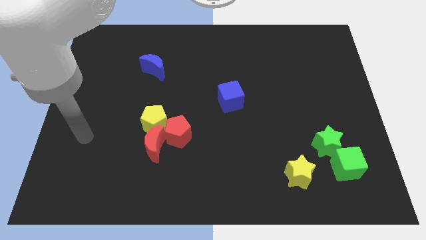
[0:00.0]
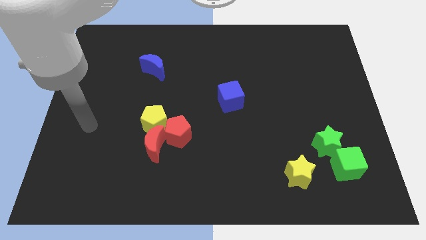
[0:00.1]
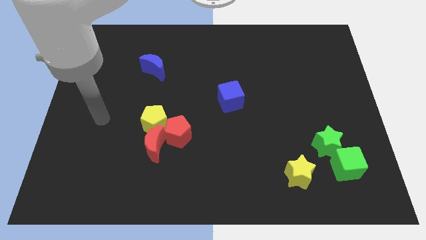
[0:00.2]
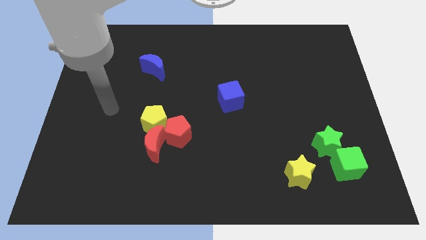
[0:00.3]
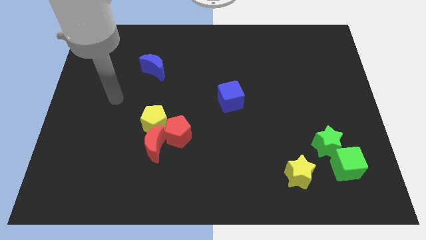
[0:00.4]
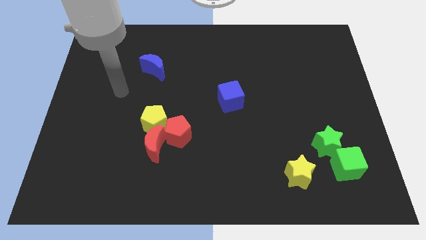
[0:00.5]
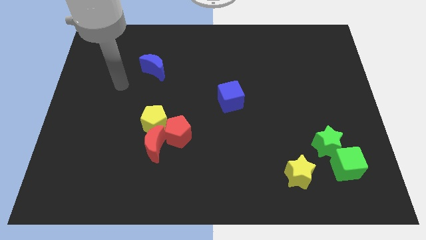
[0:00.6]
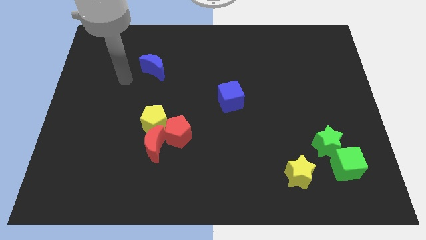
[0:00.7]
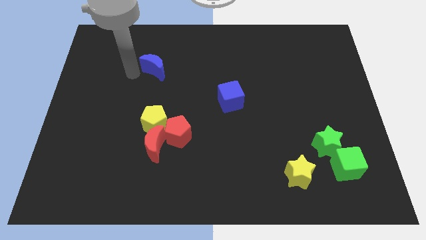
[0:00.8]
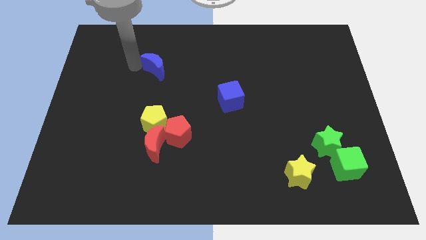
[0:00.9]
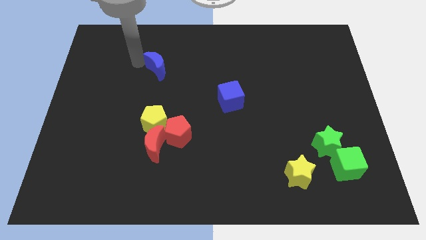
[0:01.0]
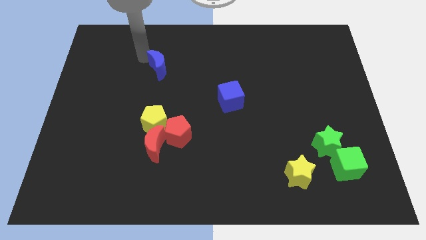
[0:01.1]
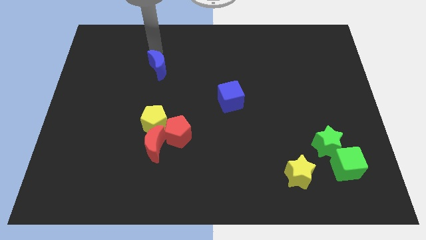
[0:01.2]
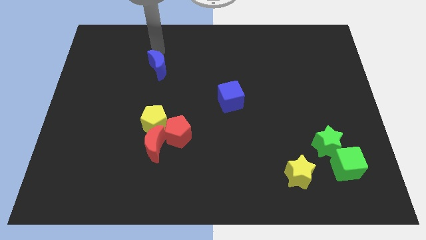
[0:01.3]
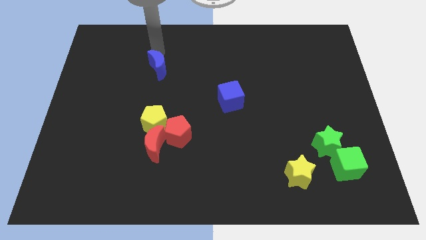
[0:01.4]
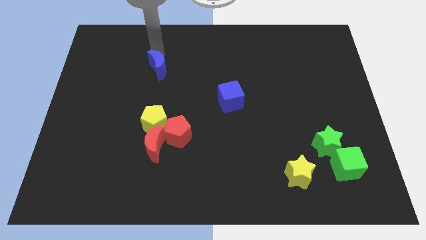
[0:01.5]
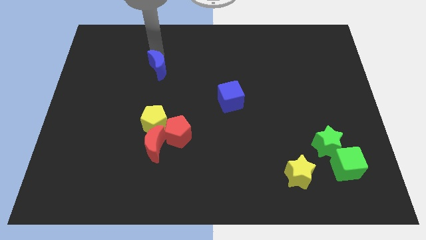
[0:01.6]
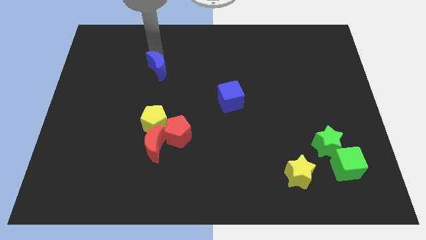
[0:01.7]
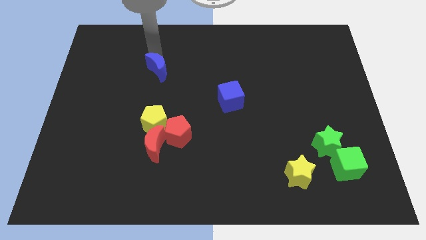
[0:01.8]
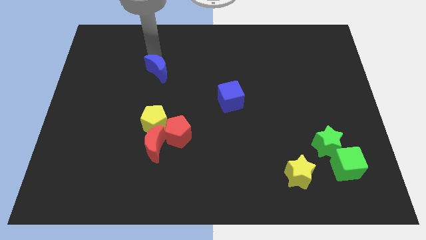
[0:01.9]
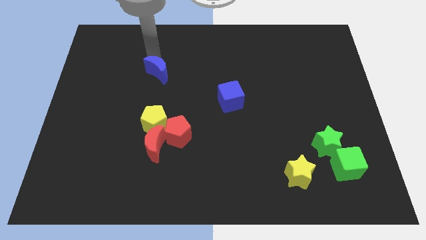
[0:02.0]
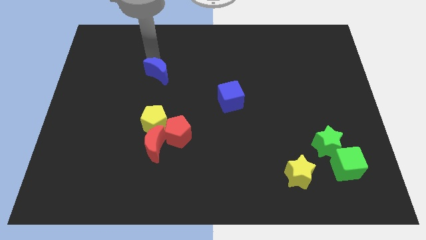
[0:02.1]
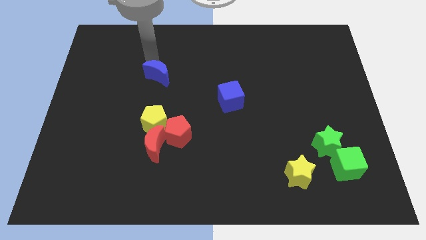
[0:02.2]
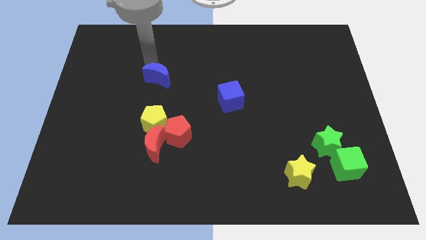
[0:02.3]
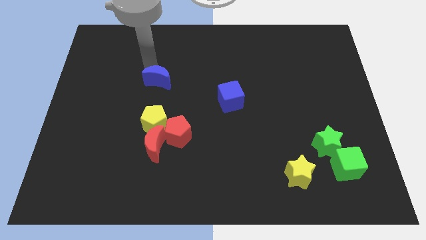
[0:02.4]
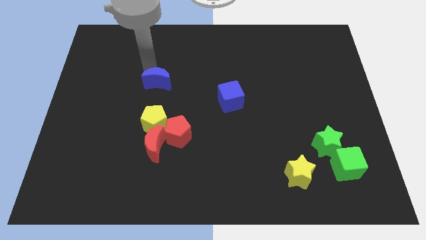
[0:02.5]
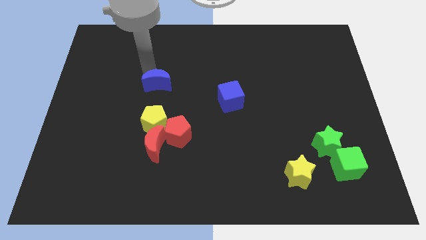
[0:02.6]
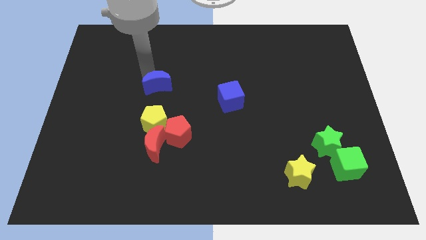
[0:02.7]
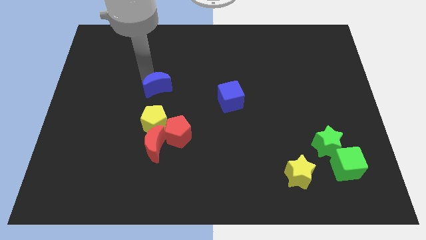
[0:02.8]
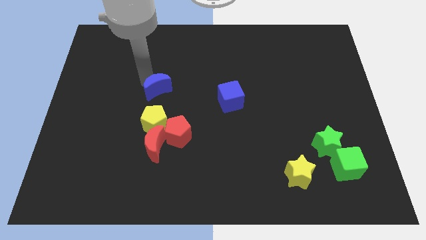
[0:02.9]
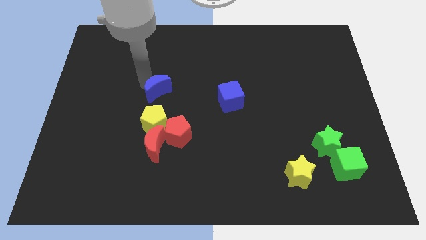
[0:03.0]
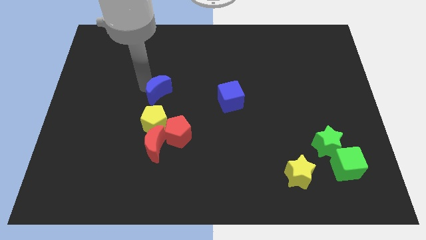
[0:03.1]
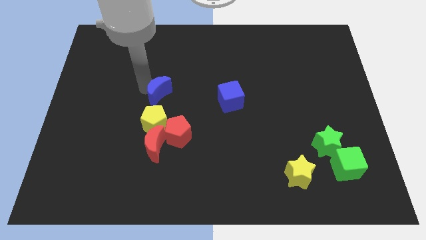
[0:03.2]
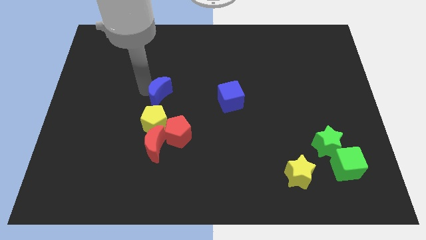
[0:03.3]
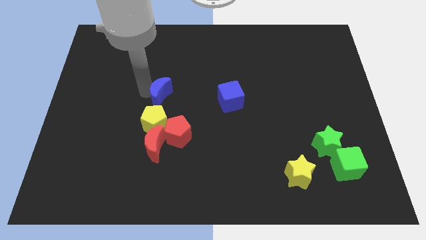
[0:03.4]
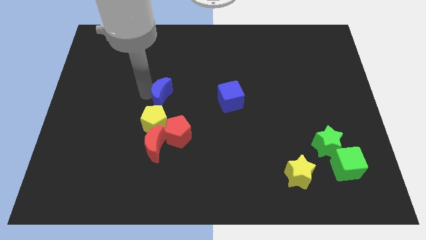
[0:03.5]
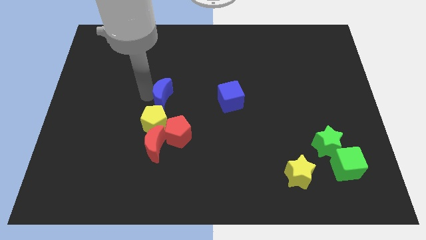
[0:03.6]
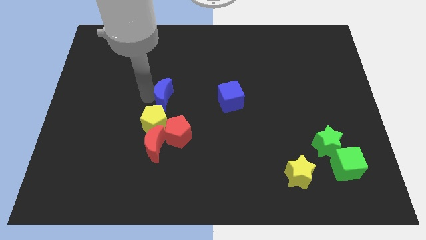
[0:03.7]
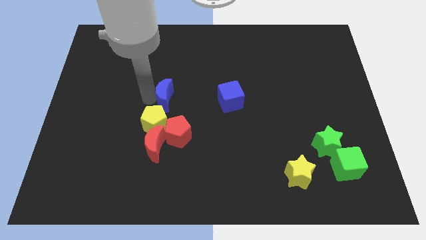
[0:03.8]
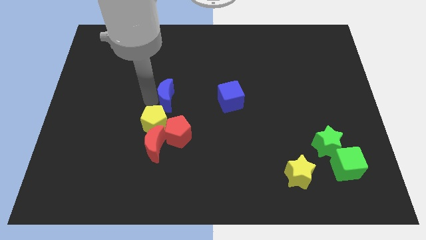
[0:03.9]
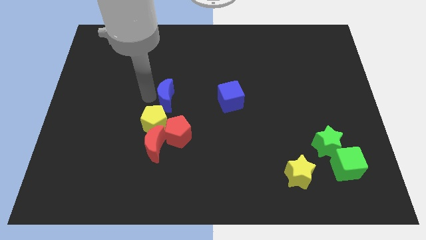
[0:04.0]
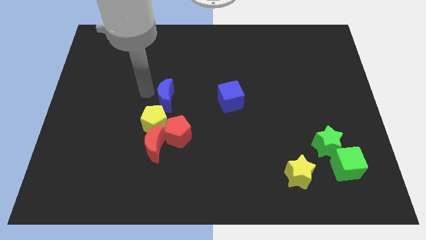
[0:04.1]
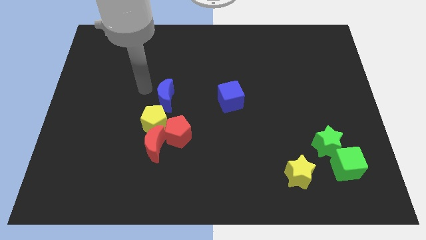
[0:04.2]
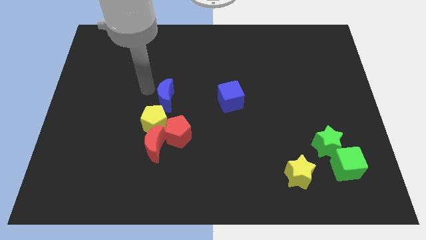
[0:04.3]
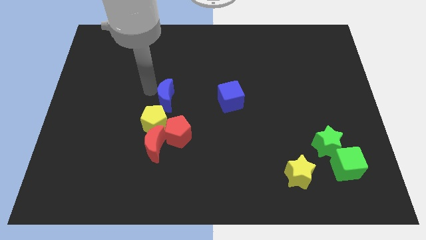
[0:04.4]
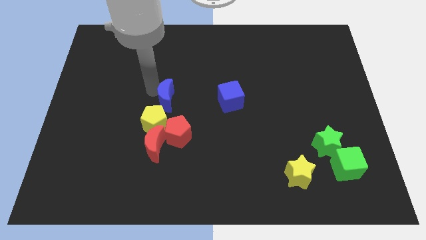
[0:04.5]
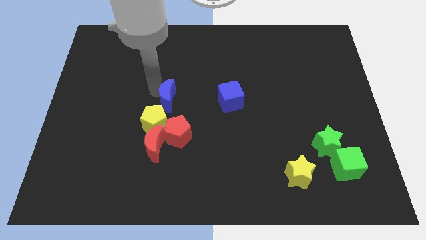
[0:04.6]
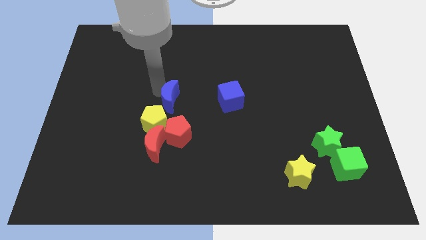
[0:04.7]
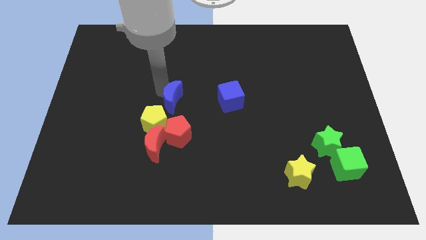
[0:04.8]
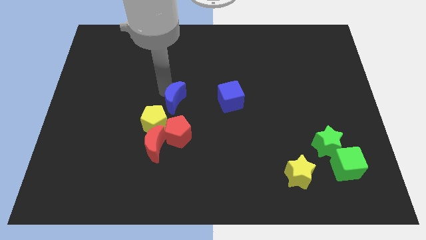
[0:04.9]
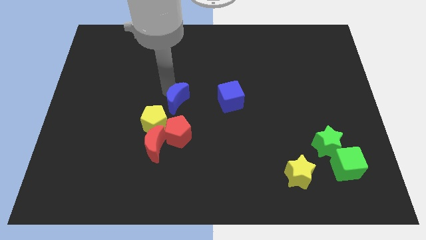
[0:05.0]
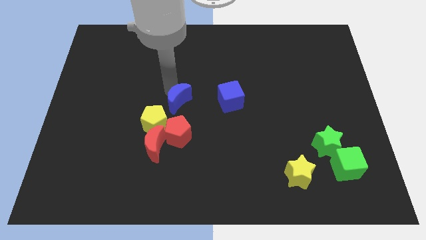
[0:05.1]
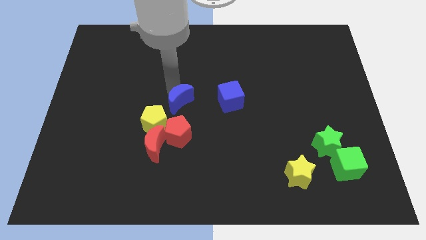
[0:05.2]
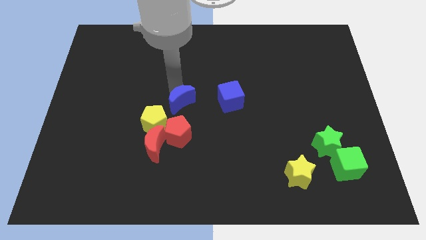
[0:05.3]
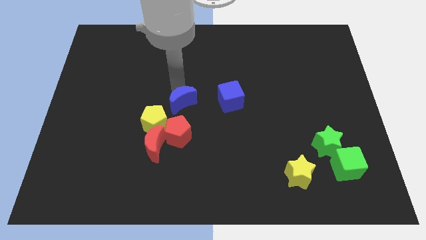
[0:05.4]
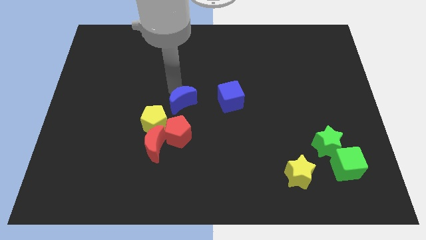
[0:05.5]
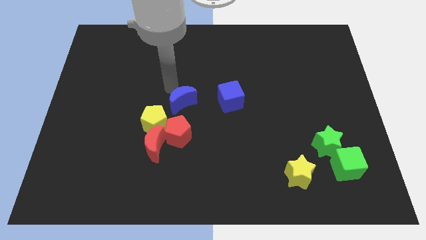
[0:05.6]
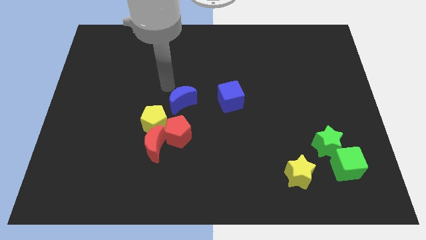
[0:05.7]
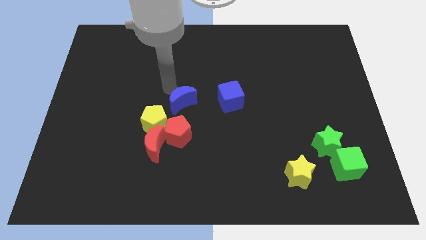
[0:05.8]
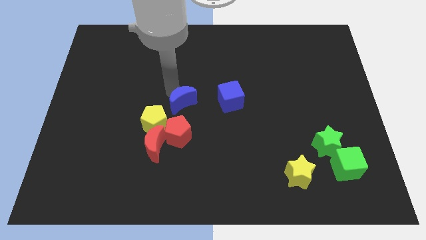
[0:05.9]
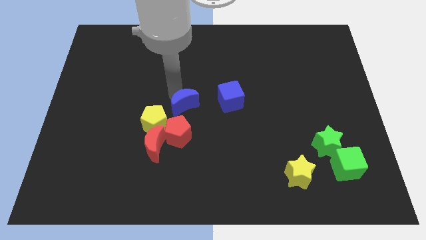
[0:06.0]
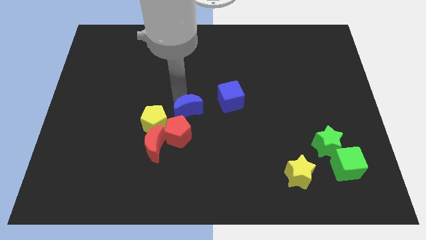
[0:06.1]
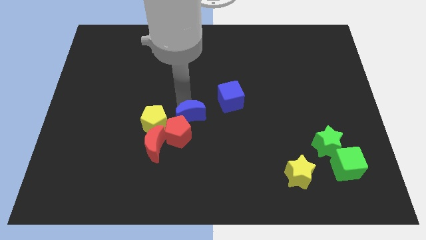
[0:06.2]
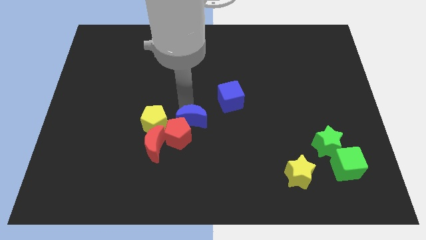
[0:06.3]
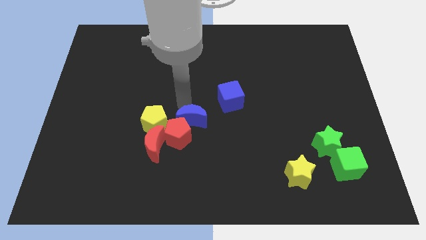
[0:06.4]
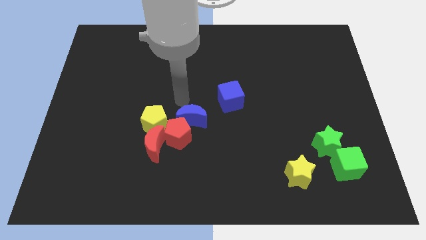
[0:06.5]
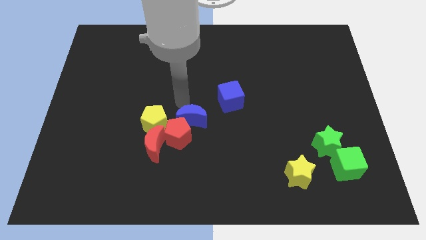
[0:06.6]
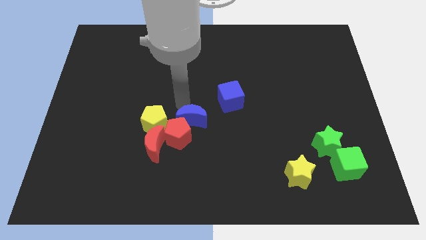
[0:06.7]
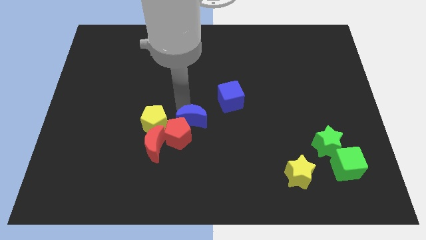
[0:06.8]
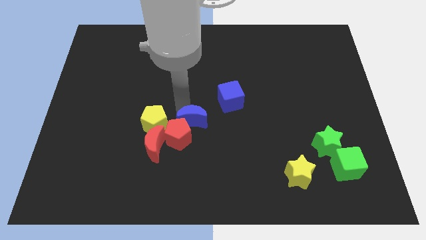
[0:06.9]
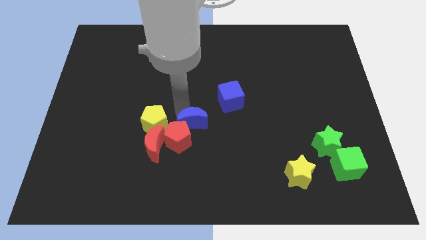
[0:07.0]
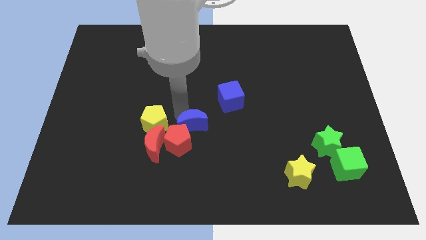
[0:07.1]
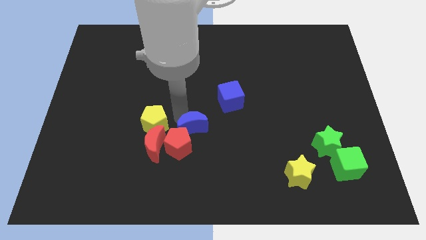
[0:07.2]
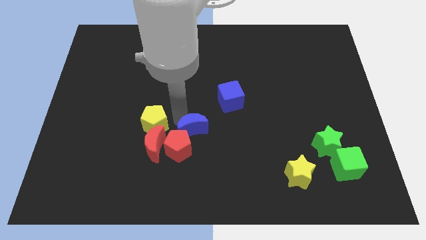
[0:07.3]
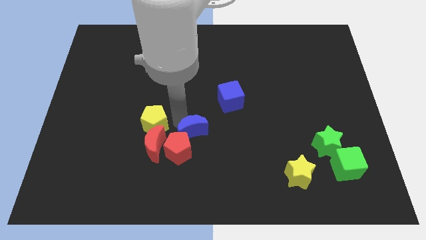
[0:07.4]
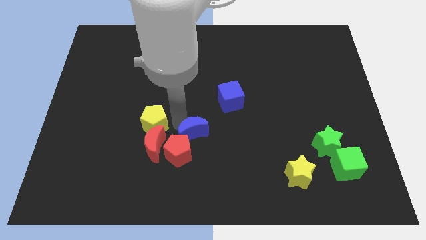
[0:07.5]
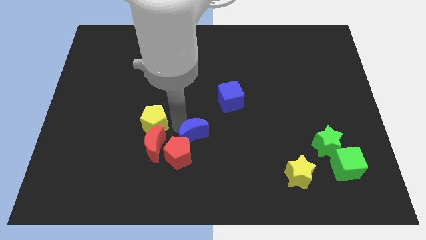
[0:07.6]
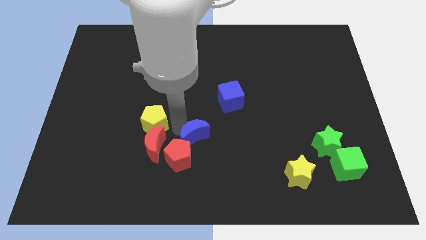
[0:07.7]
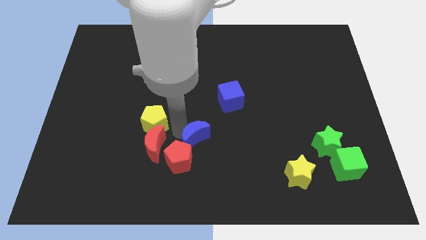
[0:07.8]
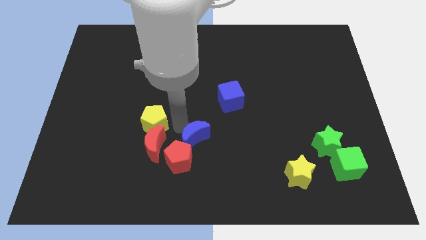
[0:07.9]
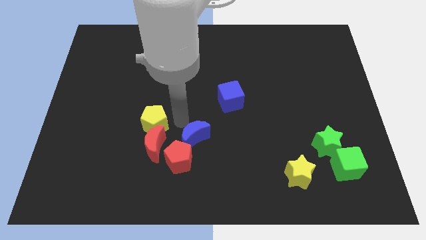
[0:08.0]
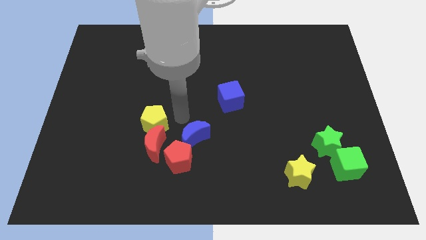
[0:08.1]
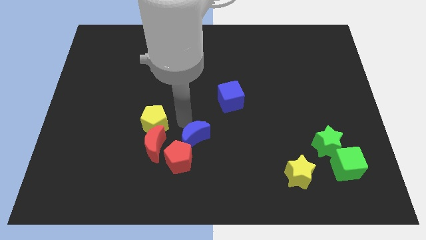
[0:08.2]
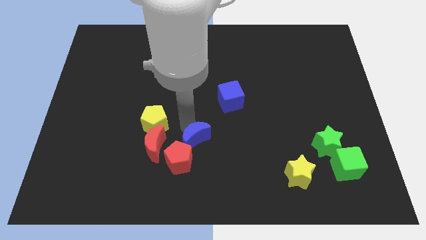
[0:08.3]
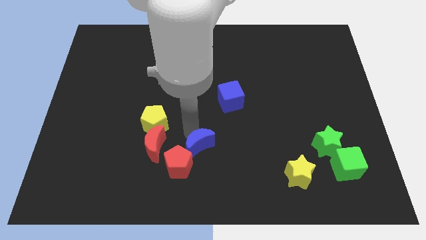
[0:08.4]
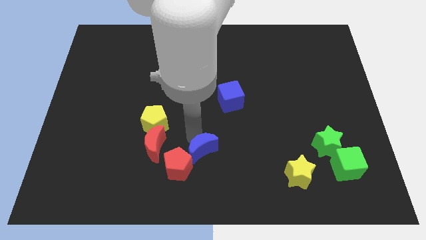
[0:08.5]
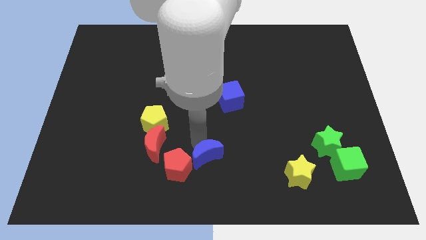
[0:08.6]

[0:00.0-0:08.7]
put the blue moon to the bottom side
